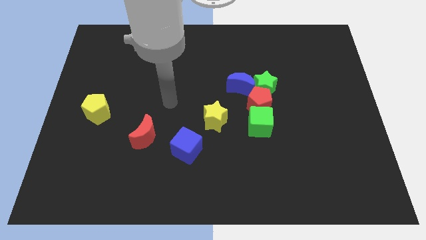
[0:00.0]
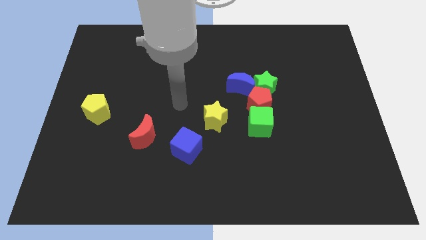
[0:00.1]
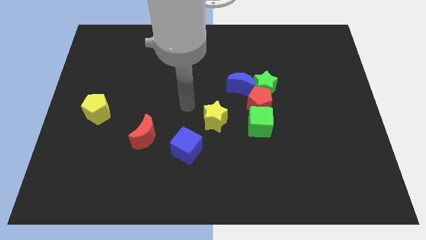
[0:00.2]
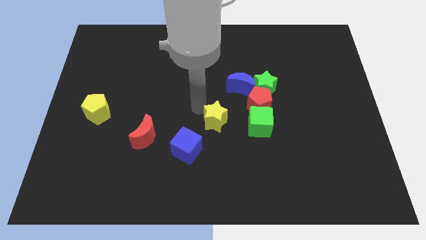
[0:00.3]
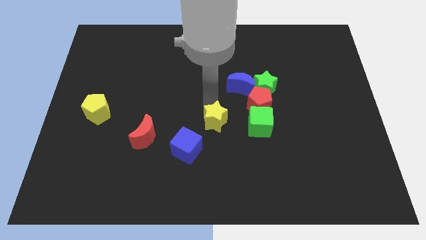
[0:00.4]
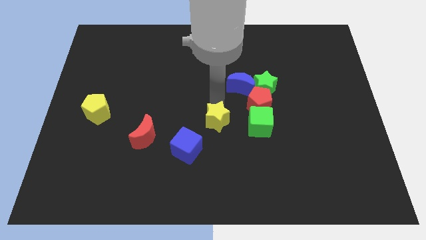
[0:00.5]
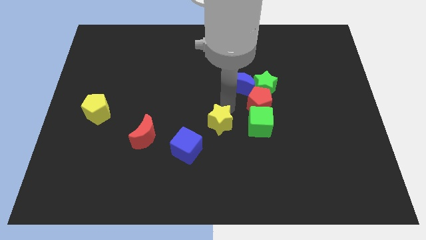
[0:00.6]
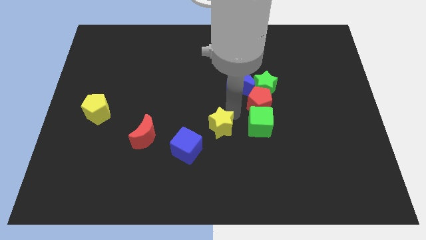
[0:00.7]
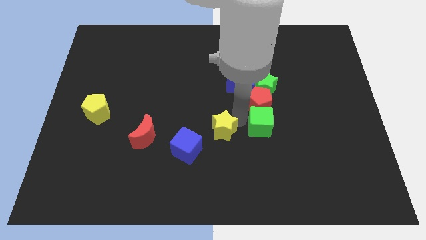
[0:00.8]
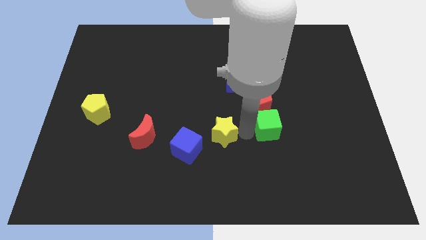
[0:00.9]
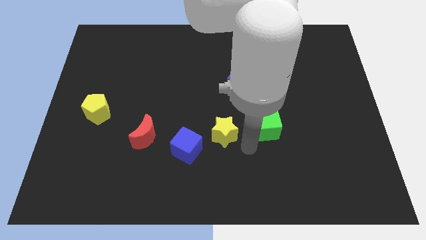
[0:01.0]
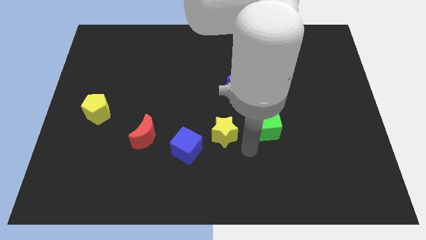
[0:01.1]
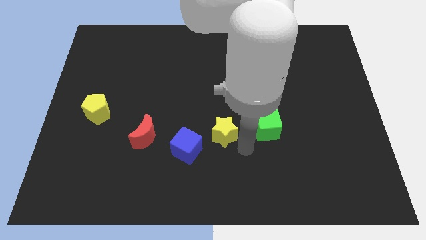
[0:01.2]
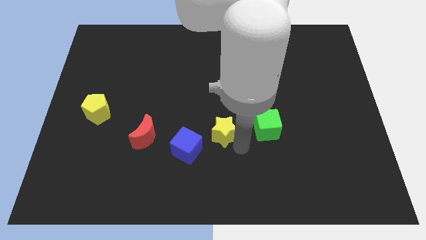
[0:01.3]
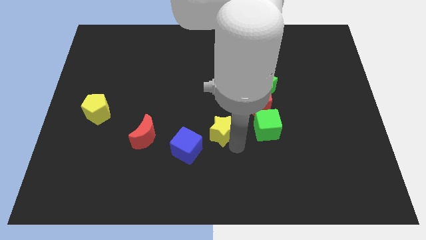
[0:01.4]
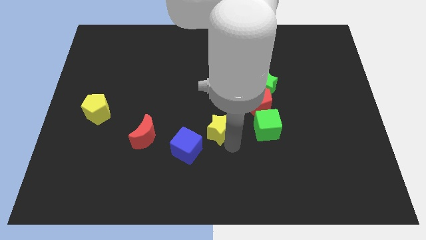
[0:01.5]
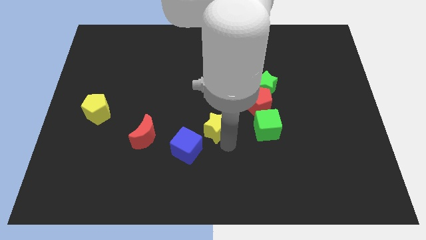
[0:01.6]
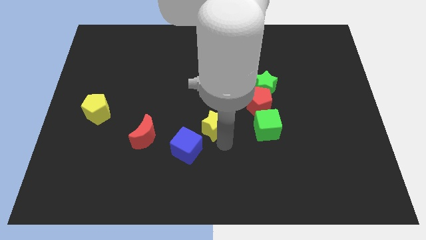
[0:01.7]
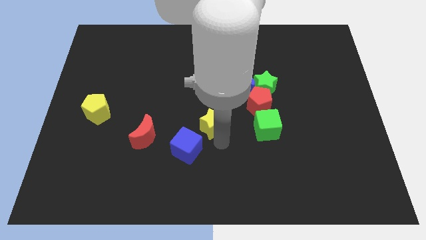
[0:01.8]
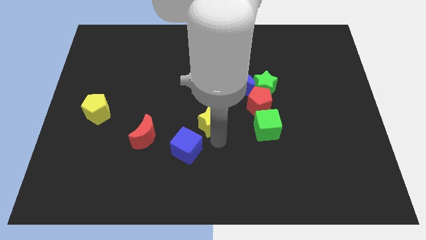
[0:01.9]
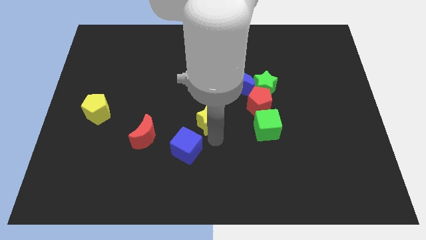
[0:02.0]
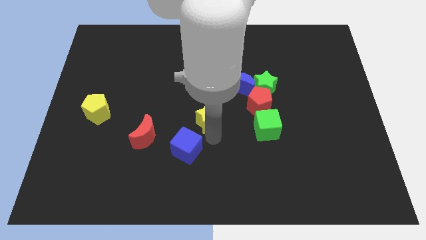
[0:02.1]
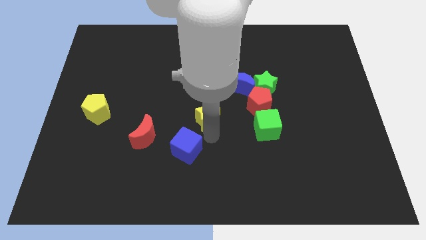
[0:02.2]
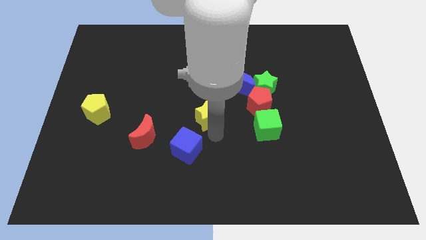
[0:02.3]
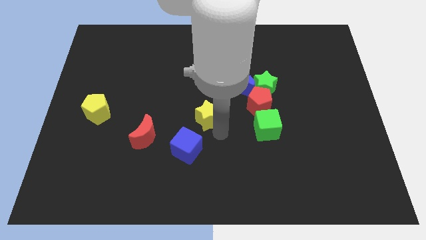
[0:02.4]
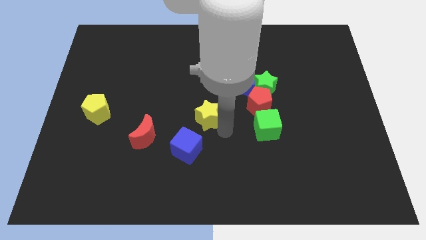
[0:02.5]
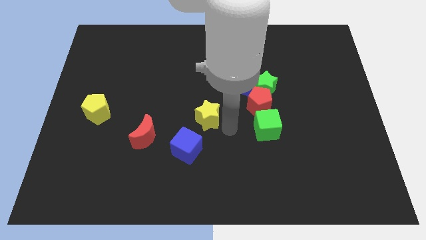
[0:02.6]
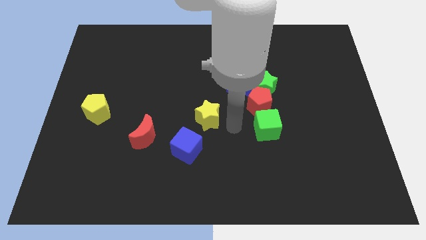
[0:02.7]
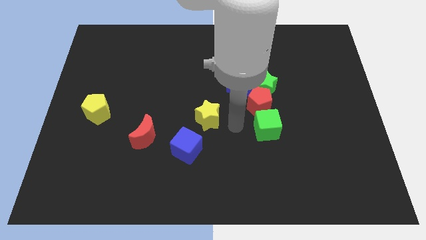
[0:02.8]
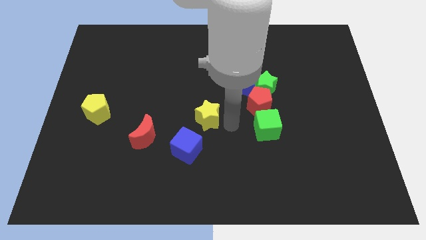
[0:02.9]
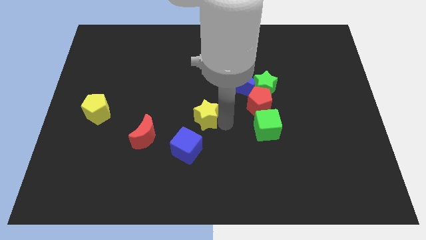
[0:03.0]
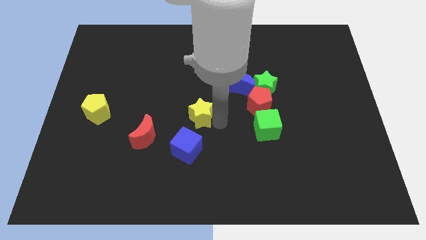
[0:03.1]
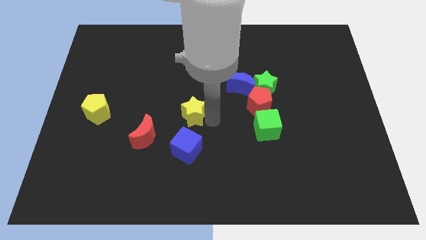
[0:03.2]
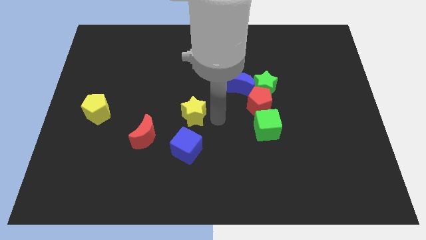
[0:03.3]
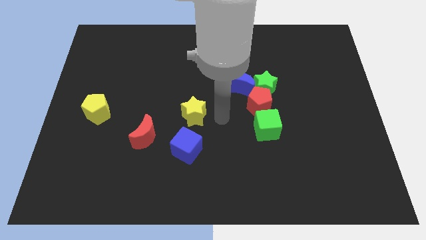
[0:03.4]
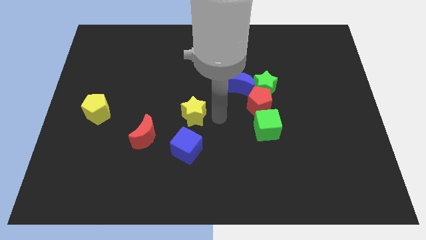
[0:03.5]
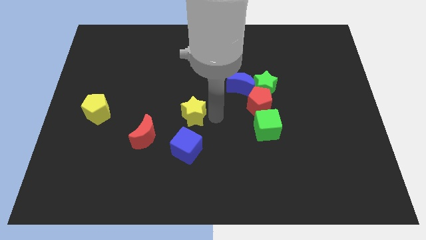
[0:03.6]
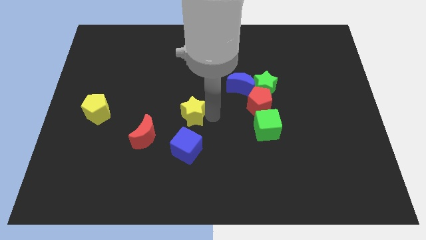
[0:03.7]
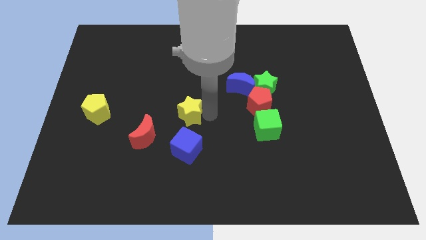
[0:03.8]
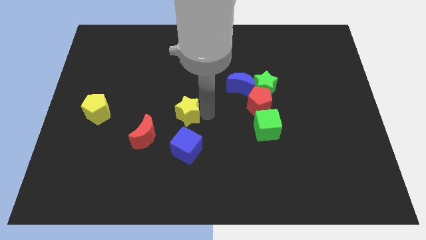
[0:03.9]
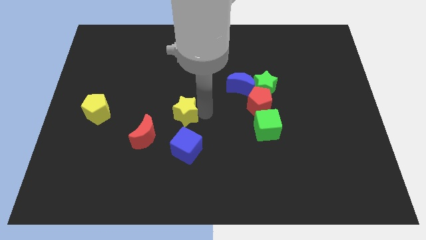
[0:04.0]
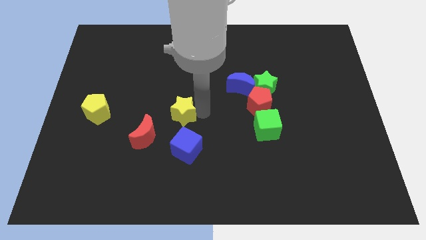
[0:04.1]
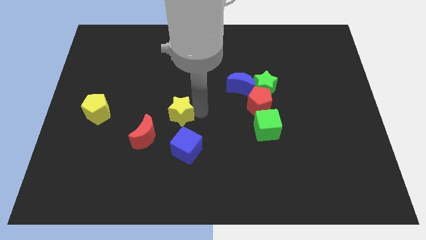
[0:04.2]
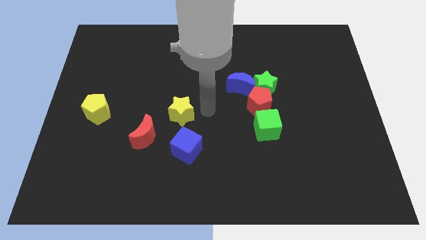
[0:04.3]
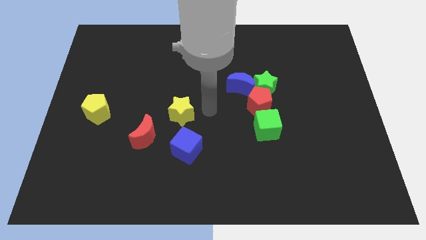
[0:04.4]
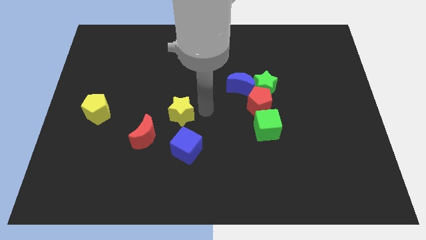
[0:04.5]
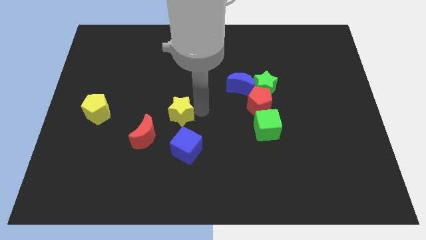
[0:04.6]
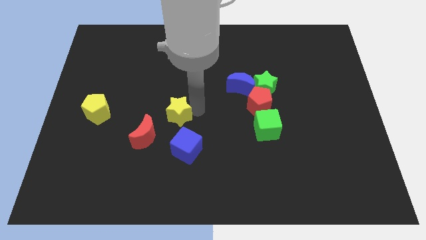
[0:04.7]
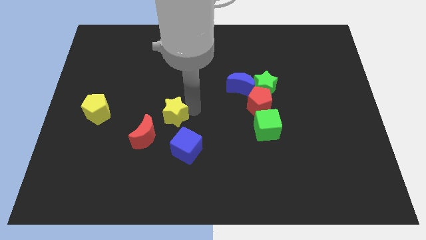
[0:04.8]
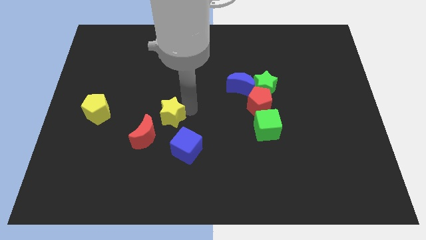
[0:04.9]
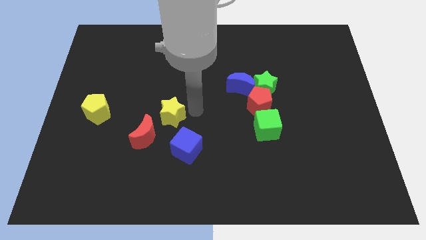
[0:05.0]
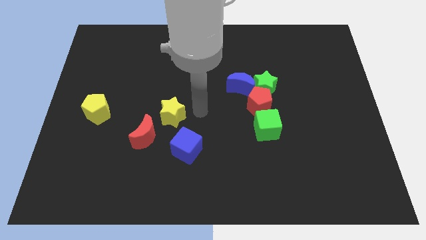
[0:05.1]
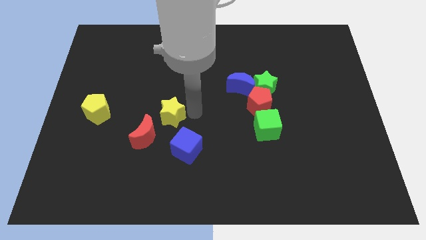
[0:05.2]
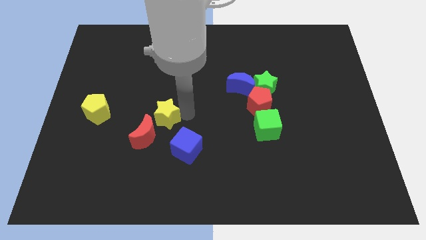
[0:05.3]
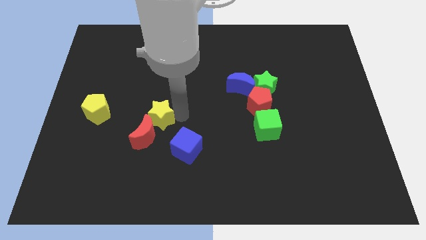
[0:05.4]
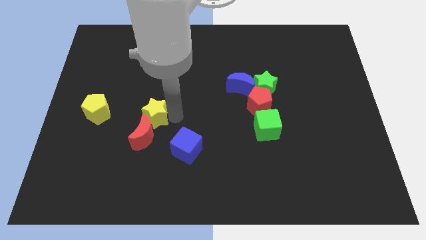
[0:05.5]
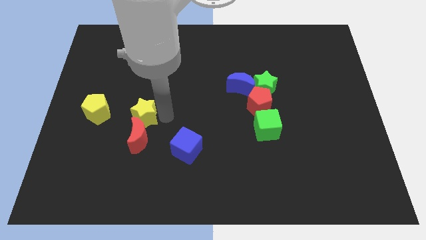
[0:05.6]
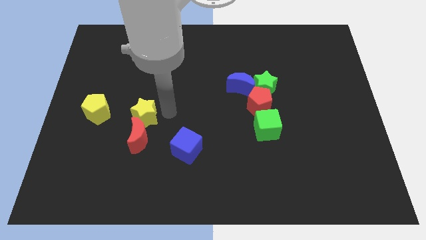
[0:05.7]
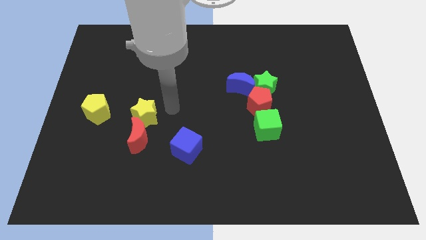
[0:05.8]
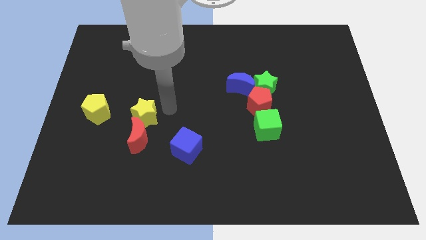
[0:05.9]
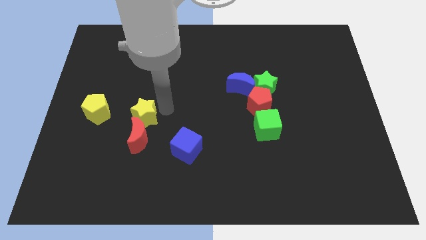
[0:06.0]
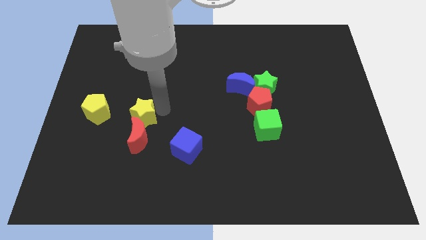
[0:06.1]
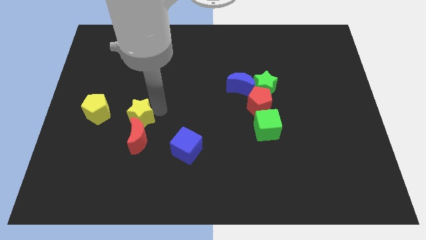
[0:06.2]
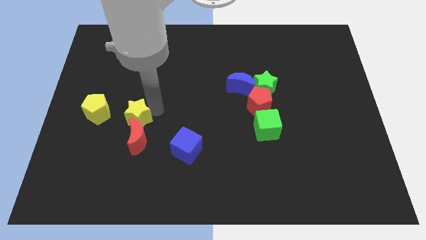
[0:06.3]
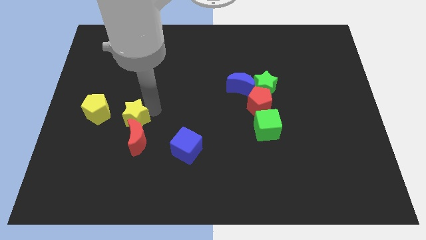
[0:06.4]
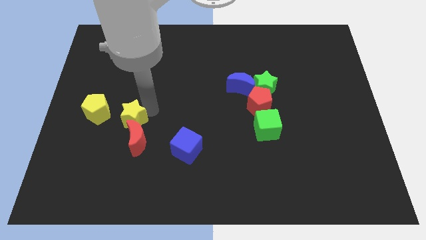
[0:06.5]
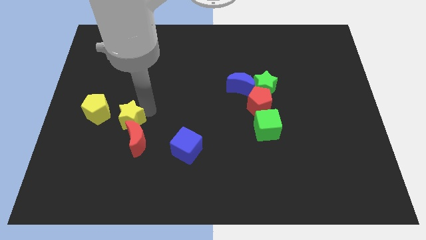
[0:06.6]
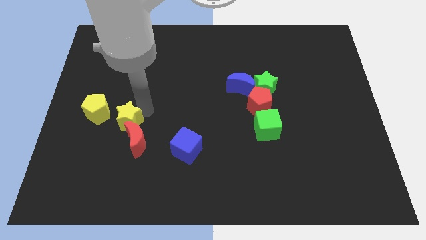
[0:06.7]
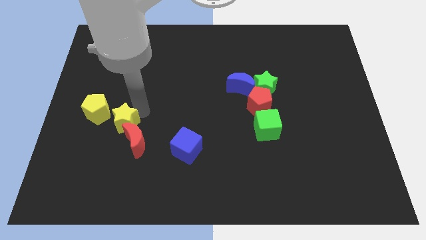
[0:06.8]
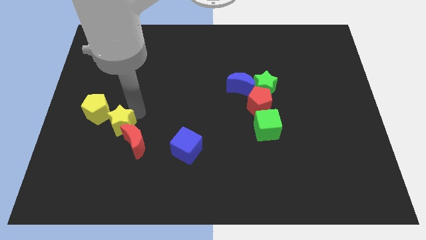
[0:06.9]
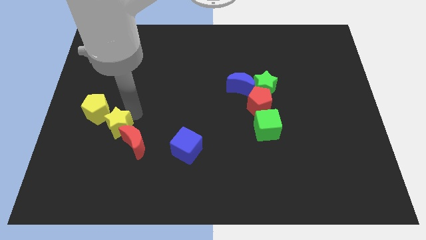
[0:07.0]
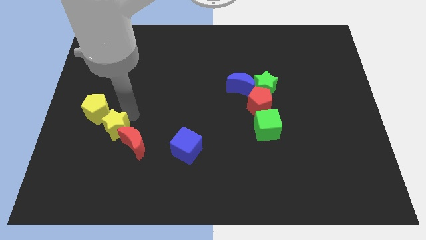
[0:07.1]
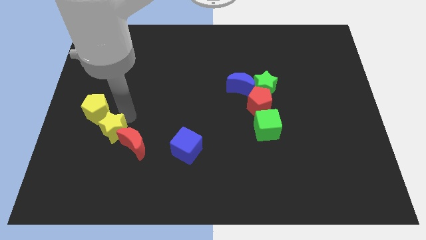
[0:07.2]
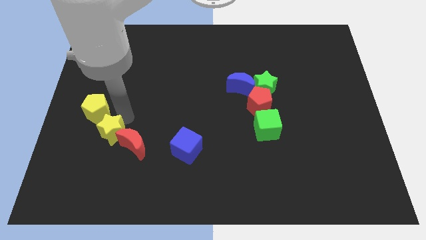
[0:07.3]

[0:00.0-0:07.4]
put the yellow star below the yellow pentagon
